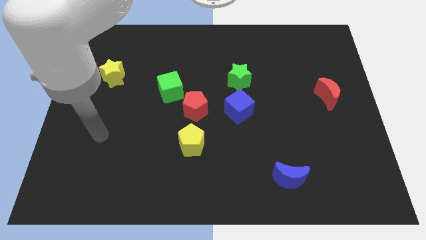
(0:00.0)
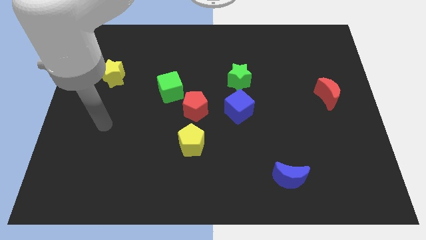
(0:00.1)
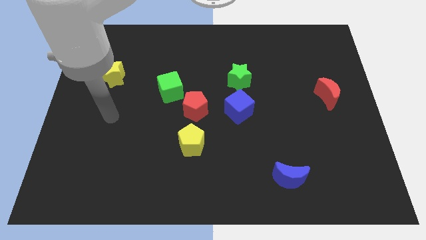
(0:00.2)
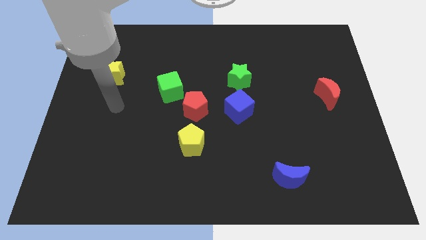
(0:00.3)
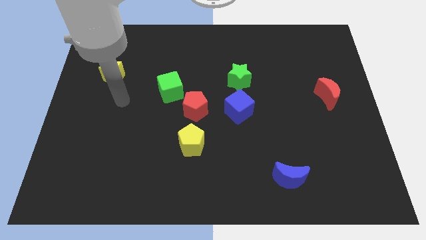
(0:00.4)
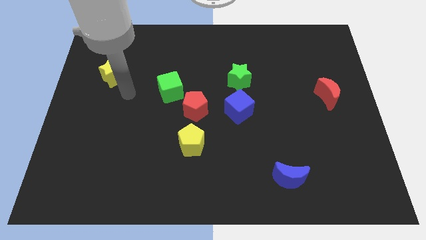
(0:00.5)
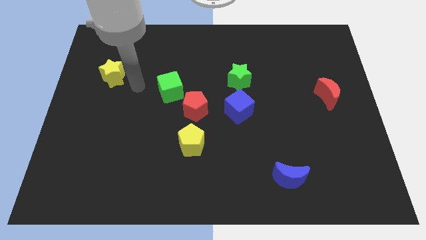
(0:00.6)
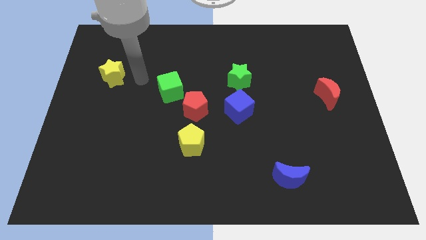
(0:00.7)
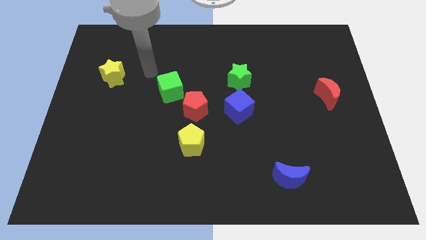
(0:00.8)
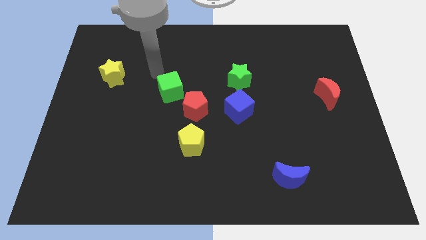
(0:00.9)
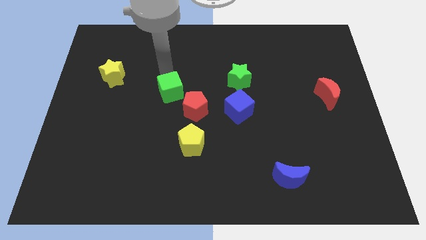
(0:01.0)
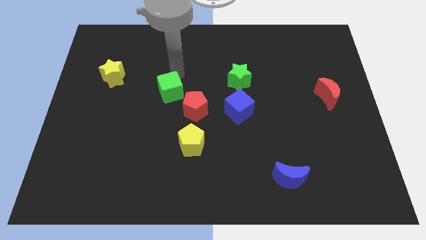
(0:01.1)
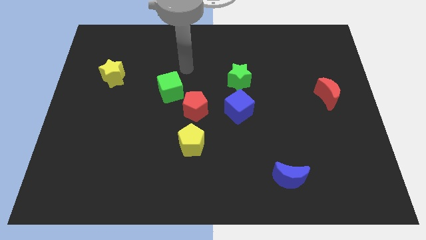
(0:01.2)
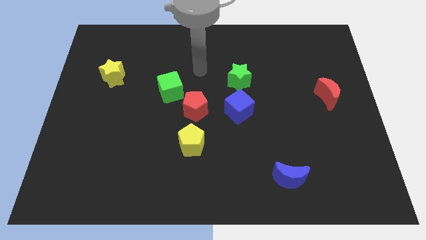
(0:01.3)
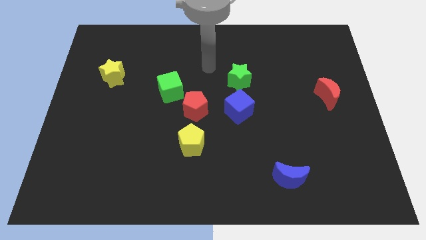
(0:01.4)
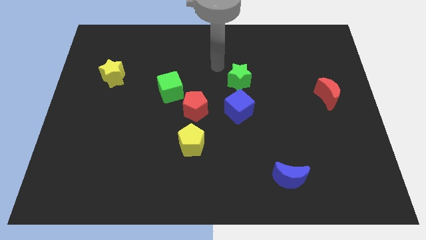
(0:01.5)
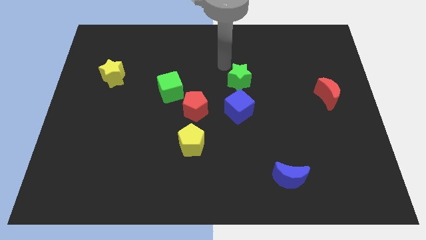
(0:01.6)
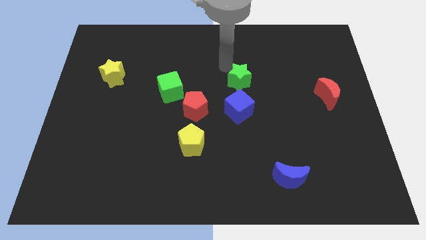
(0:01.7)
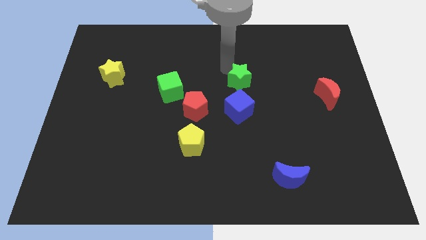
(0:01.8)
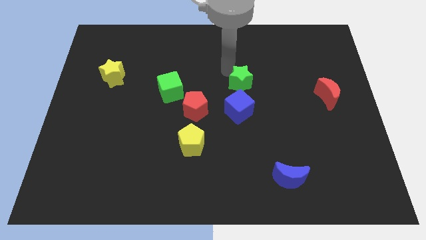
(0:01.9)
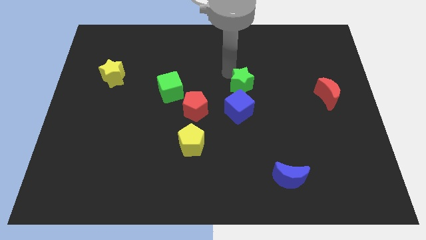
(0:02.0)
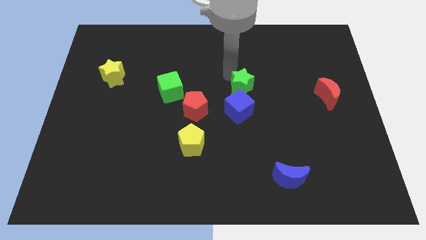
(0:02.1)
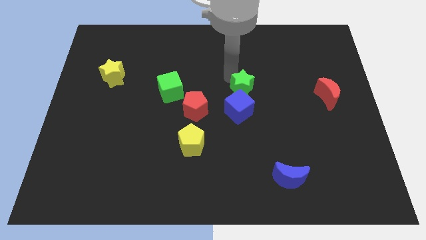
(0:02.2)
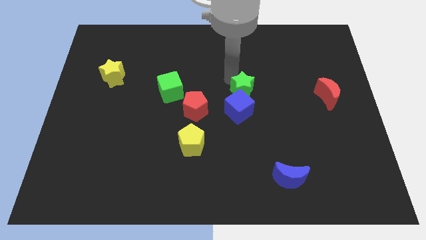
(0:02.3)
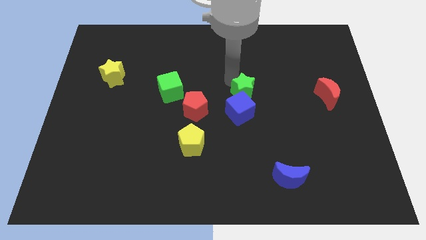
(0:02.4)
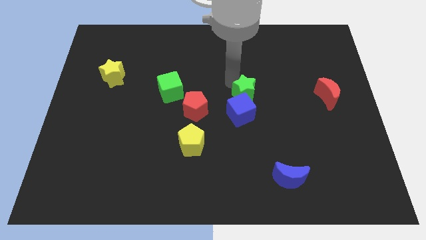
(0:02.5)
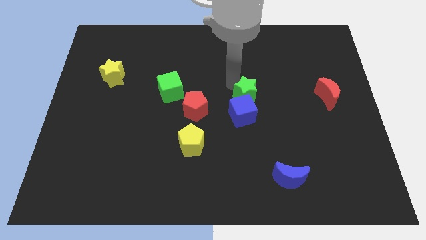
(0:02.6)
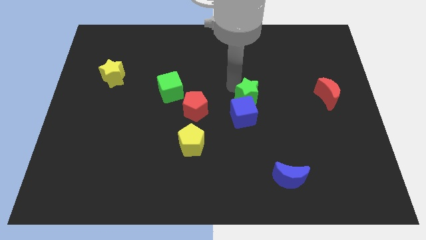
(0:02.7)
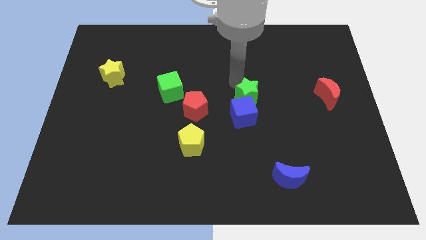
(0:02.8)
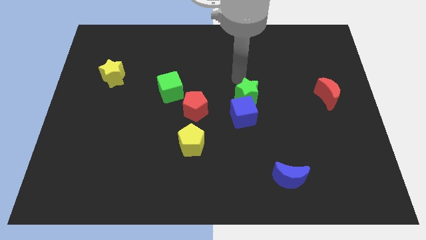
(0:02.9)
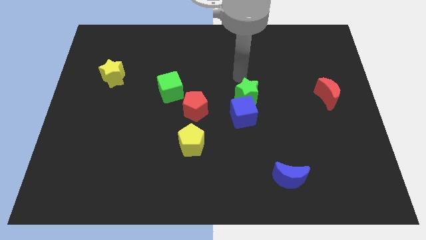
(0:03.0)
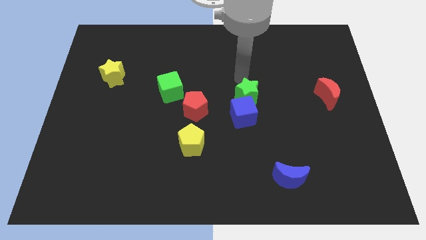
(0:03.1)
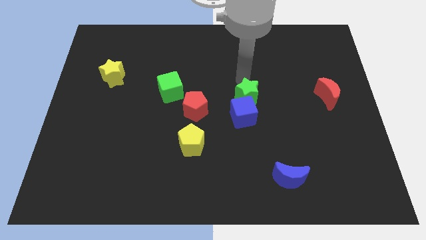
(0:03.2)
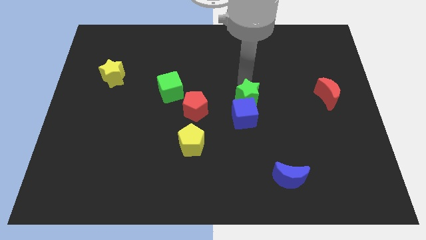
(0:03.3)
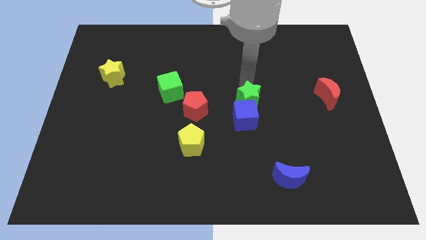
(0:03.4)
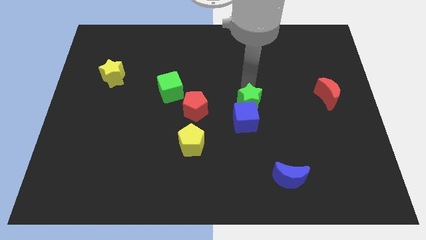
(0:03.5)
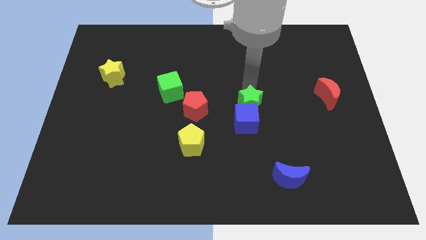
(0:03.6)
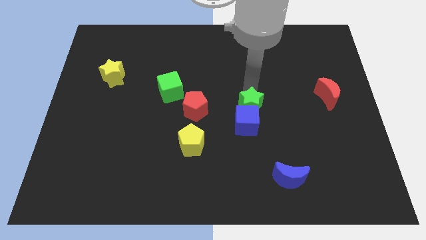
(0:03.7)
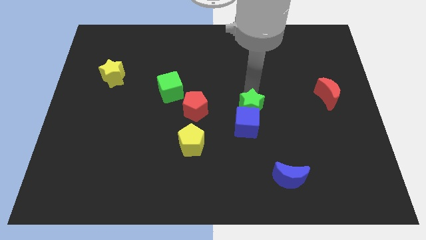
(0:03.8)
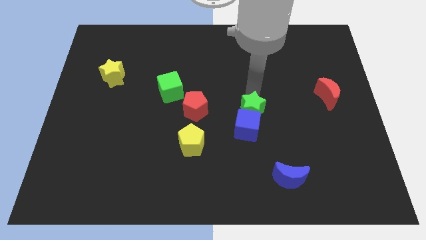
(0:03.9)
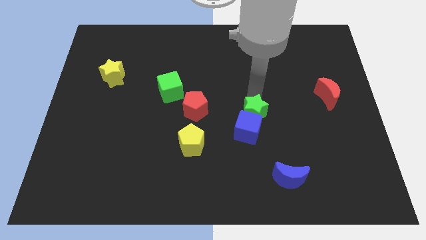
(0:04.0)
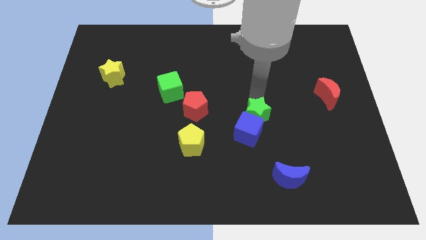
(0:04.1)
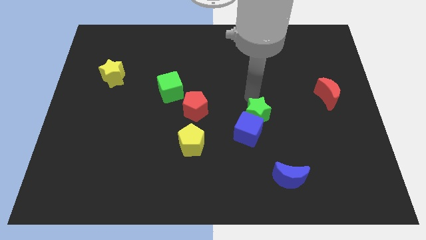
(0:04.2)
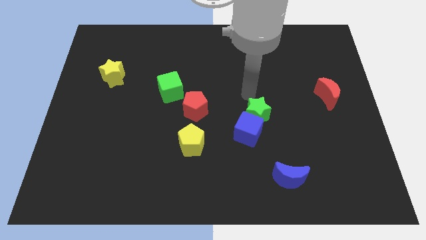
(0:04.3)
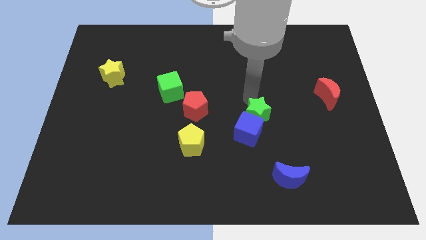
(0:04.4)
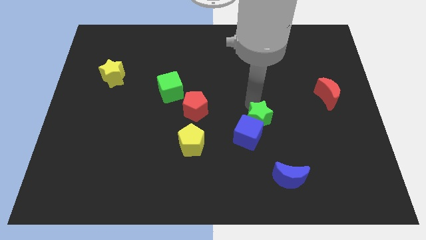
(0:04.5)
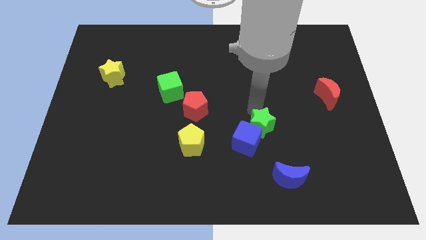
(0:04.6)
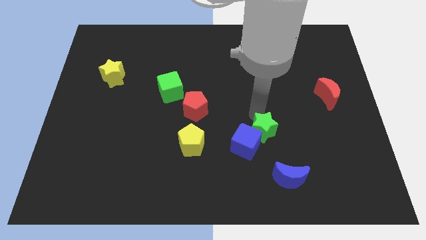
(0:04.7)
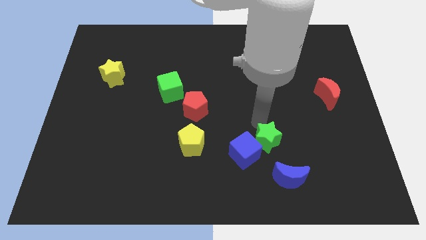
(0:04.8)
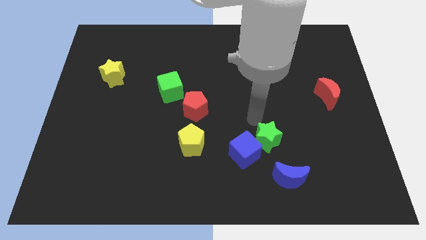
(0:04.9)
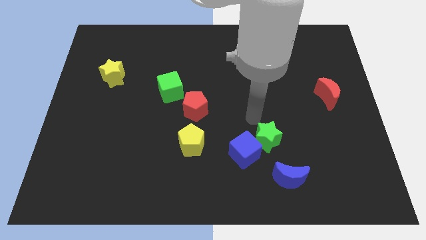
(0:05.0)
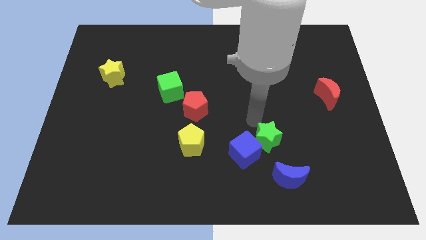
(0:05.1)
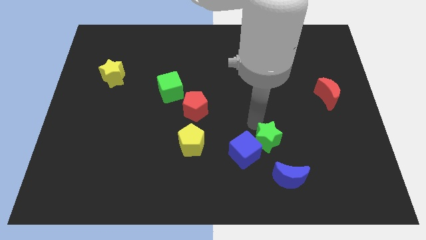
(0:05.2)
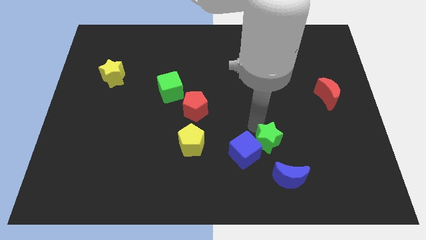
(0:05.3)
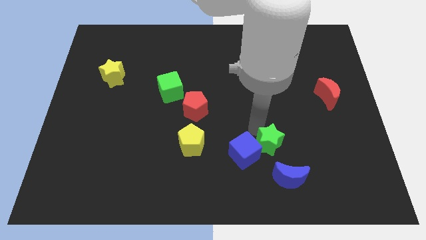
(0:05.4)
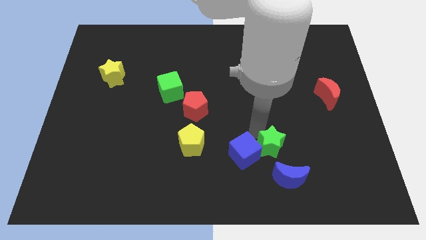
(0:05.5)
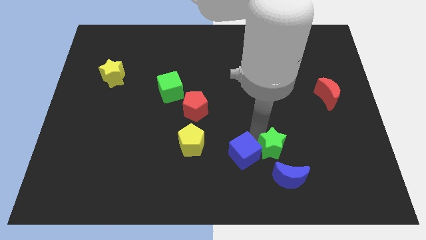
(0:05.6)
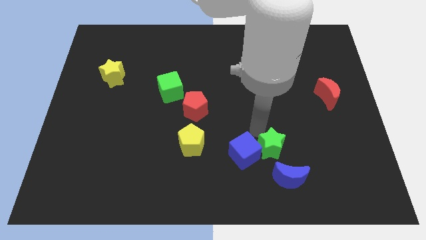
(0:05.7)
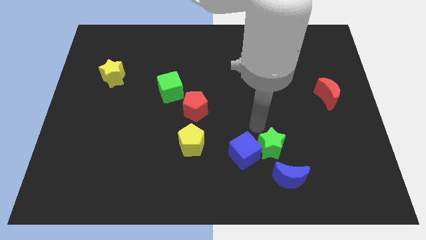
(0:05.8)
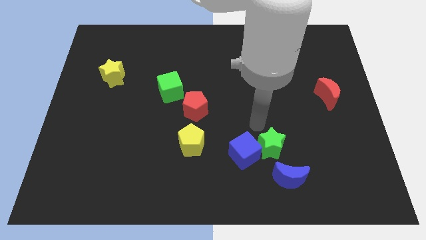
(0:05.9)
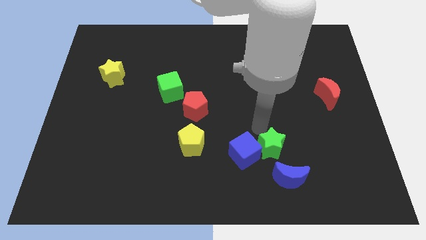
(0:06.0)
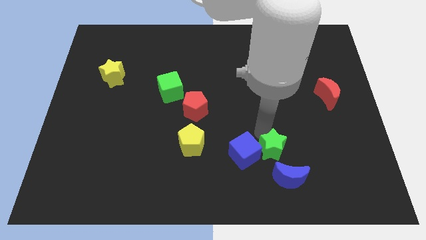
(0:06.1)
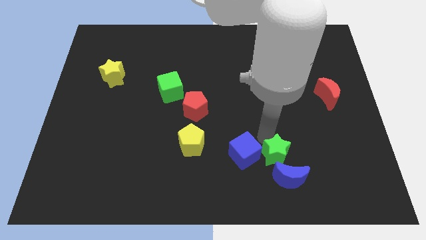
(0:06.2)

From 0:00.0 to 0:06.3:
put the green star close to the blue moon

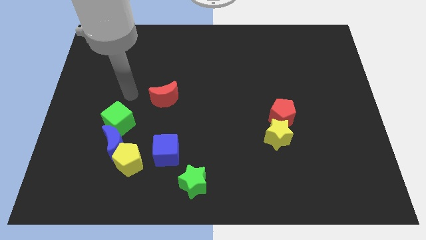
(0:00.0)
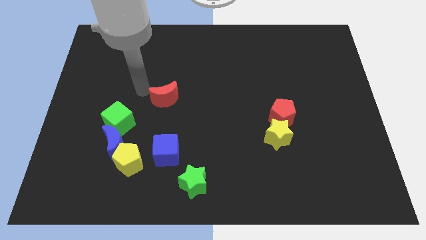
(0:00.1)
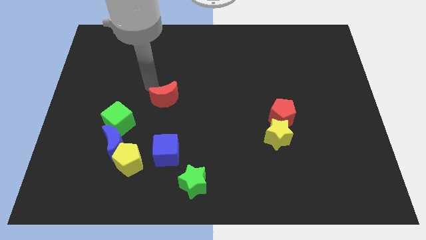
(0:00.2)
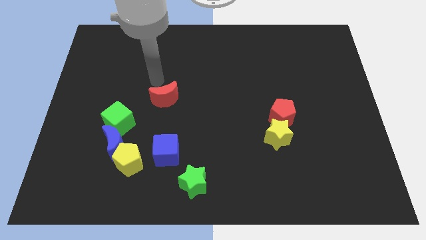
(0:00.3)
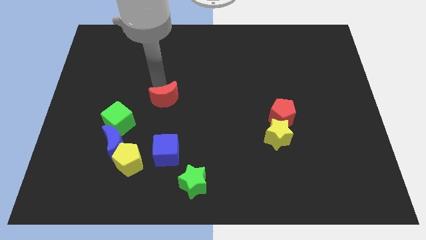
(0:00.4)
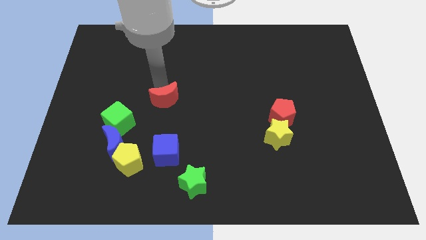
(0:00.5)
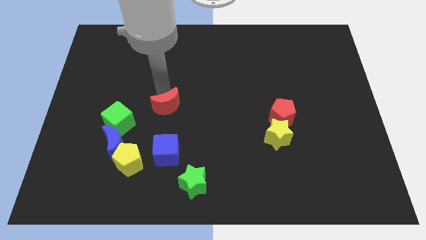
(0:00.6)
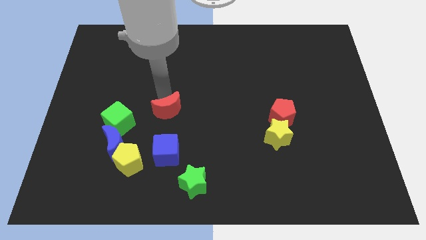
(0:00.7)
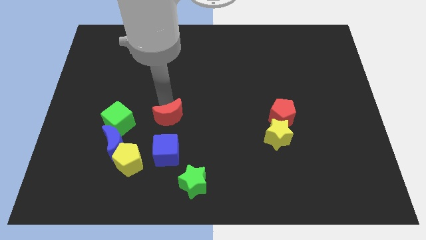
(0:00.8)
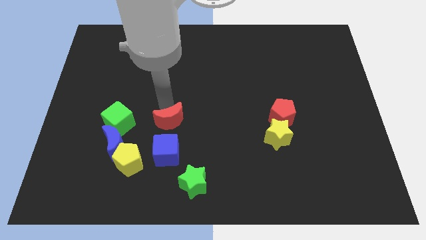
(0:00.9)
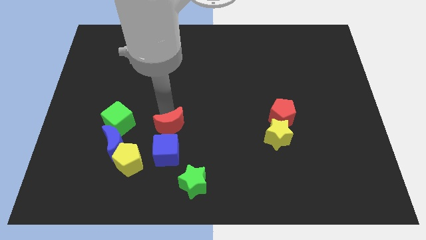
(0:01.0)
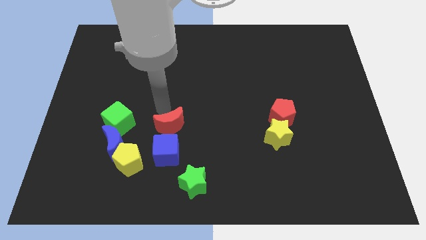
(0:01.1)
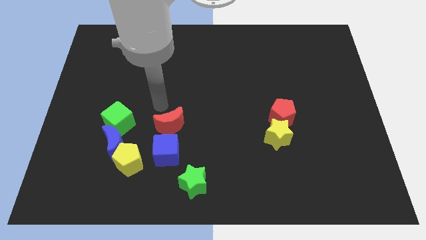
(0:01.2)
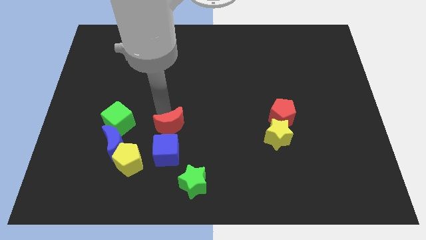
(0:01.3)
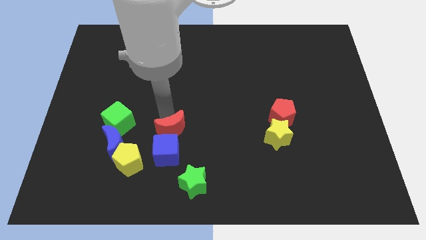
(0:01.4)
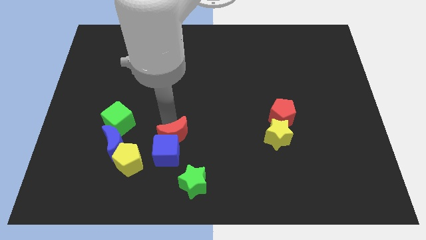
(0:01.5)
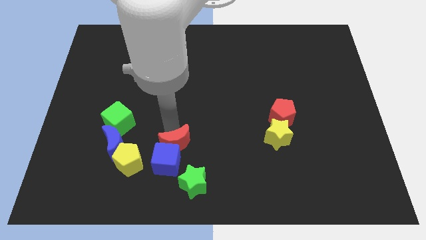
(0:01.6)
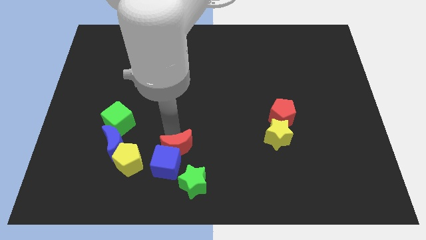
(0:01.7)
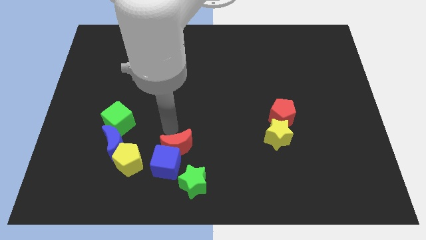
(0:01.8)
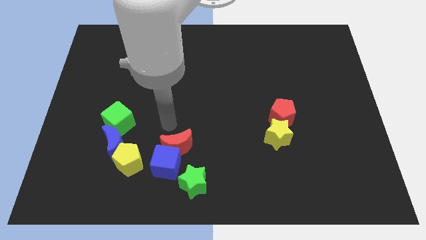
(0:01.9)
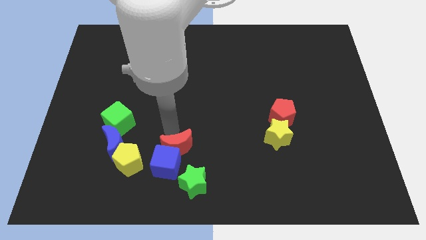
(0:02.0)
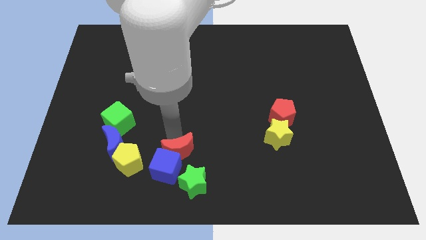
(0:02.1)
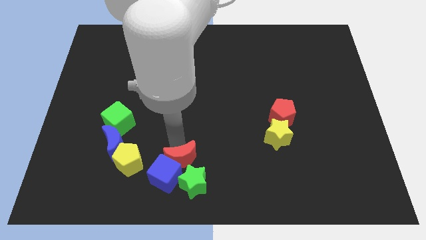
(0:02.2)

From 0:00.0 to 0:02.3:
put the red moon towards the green star
